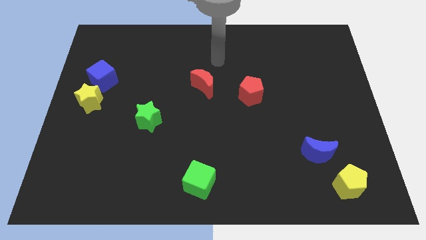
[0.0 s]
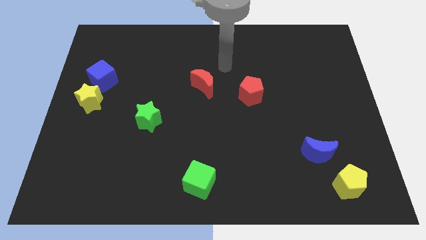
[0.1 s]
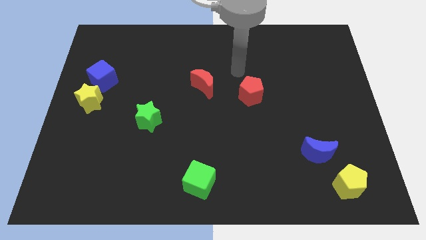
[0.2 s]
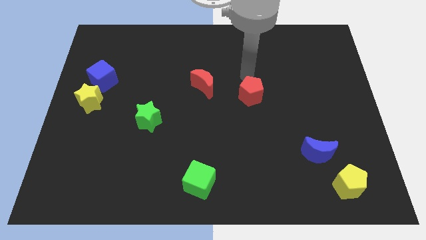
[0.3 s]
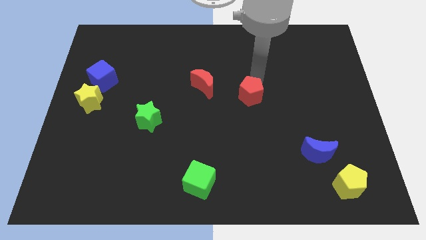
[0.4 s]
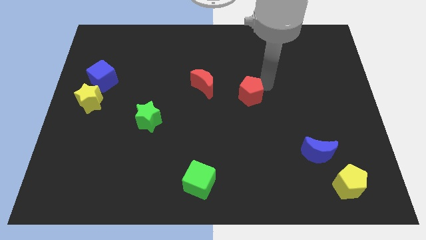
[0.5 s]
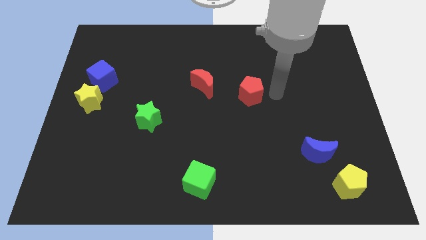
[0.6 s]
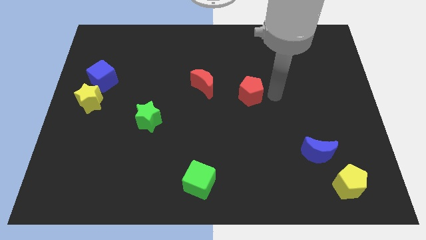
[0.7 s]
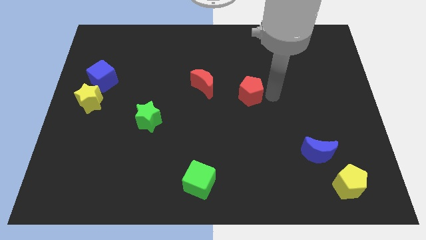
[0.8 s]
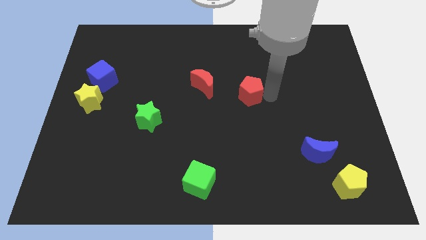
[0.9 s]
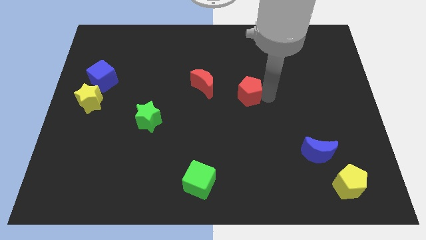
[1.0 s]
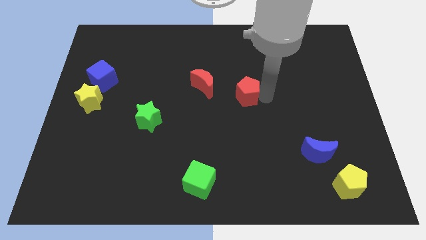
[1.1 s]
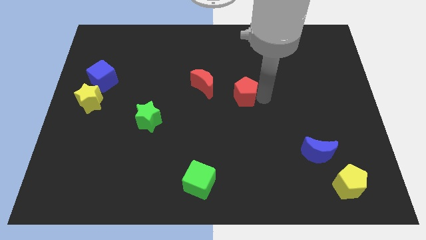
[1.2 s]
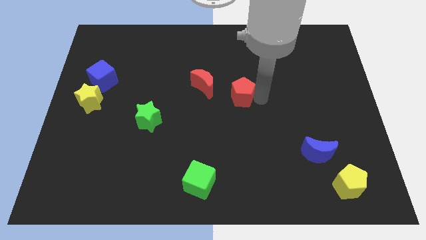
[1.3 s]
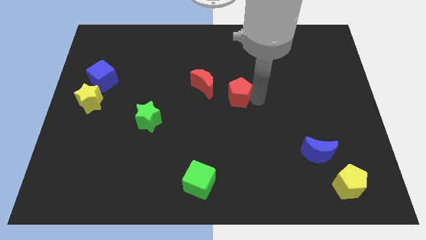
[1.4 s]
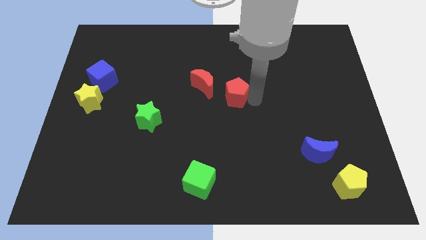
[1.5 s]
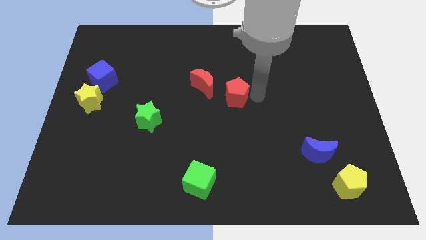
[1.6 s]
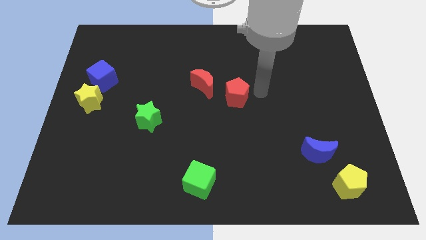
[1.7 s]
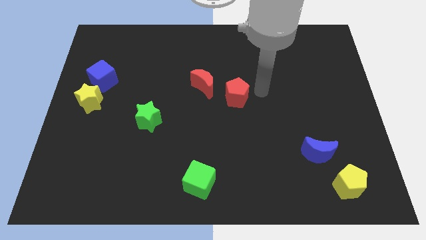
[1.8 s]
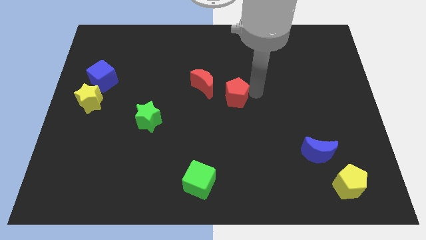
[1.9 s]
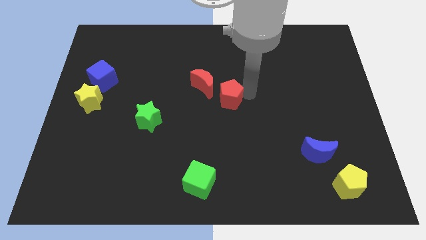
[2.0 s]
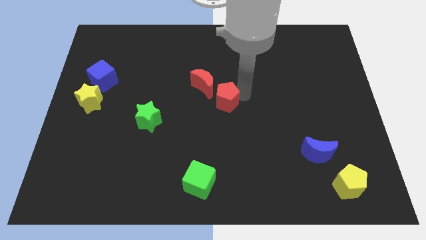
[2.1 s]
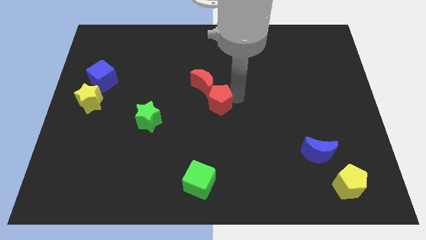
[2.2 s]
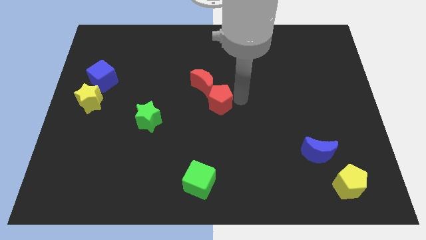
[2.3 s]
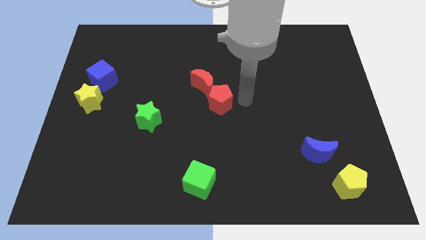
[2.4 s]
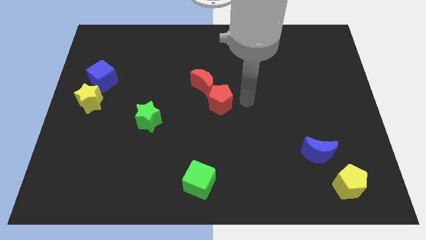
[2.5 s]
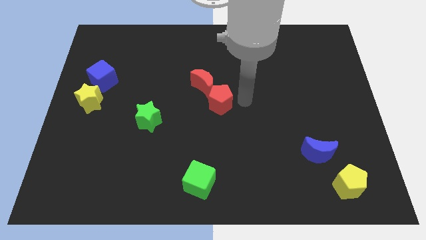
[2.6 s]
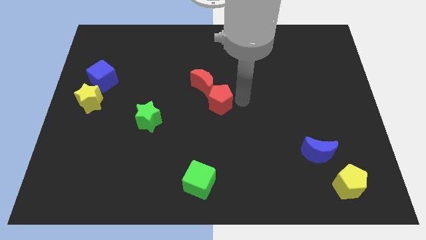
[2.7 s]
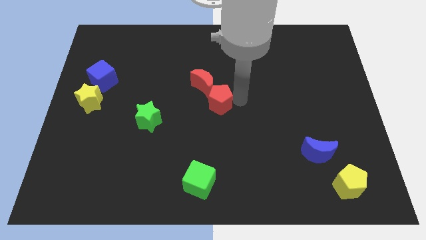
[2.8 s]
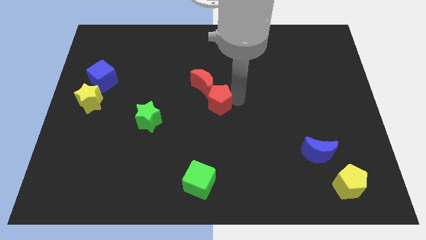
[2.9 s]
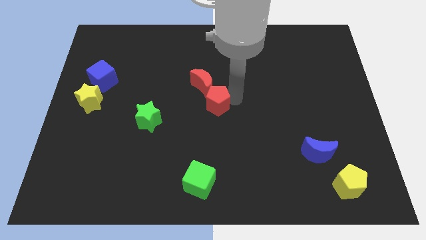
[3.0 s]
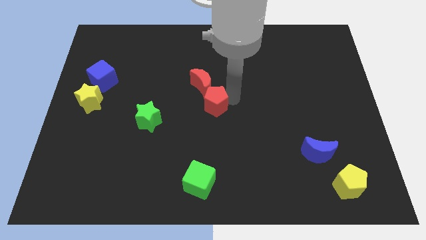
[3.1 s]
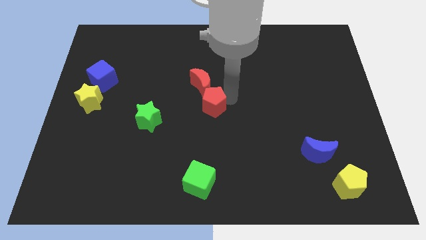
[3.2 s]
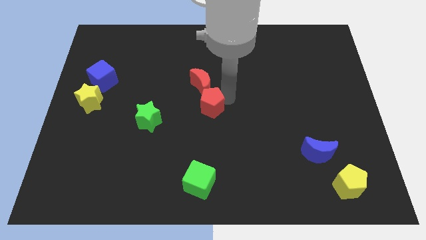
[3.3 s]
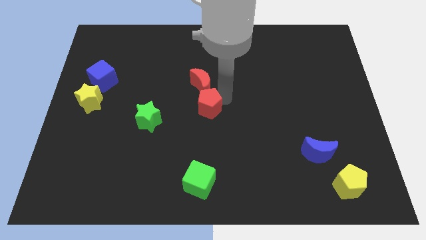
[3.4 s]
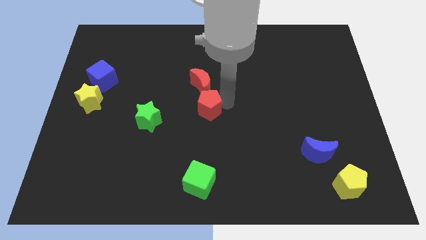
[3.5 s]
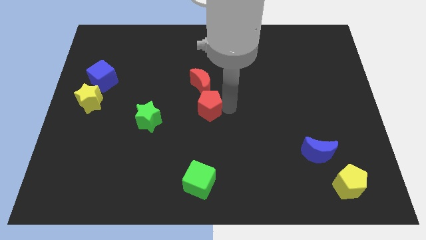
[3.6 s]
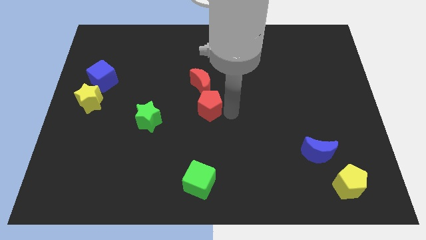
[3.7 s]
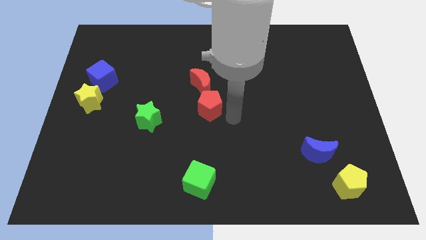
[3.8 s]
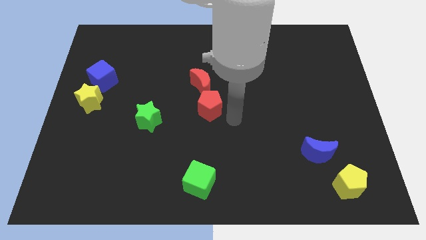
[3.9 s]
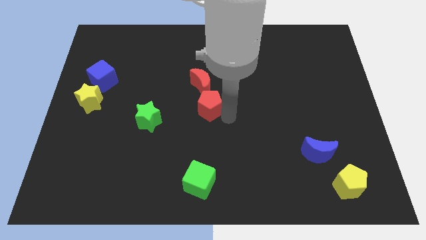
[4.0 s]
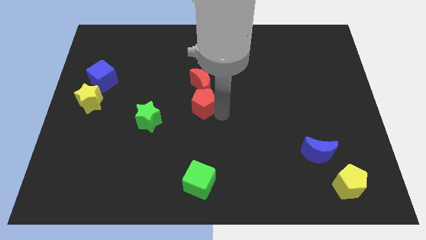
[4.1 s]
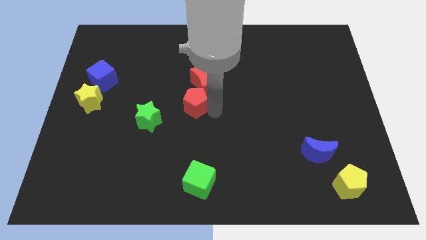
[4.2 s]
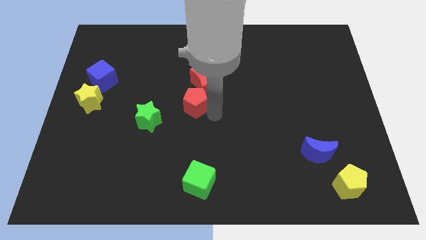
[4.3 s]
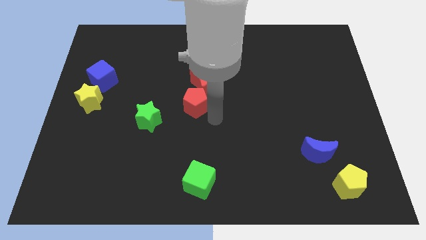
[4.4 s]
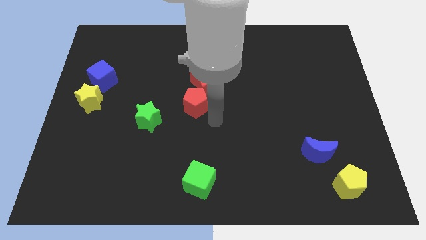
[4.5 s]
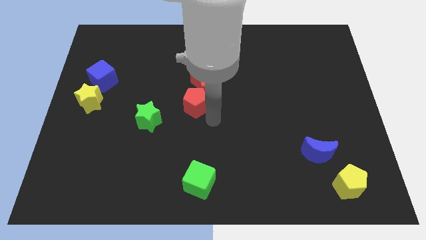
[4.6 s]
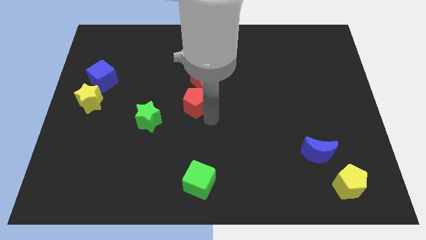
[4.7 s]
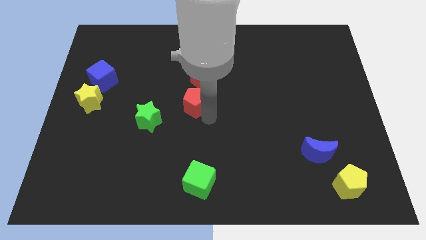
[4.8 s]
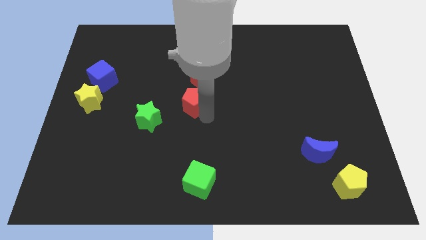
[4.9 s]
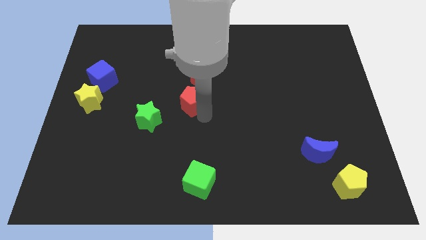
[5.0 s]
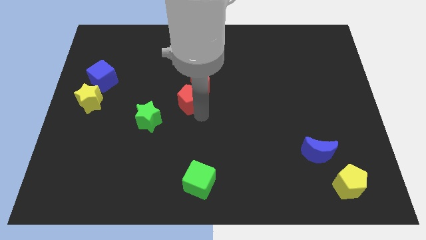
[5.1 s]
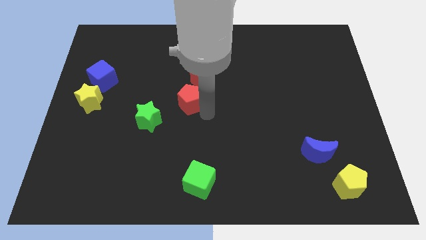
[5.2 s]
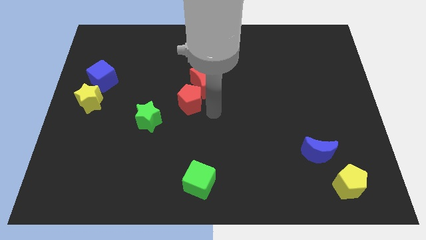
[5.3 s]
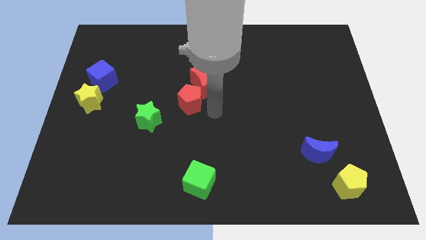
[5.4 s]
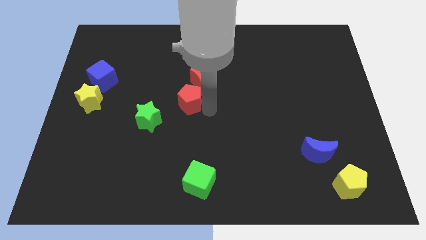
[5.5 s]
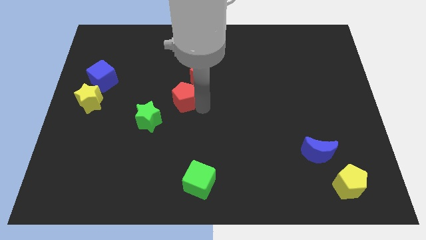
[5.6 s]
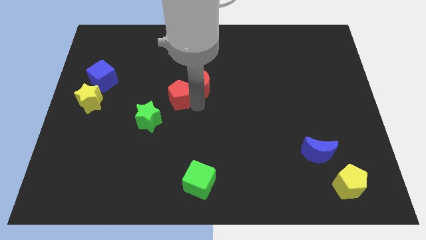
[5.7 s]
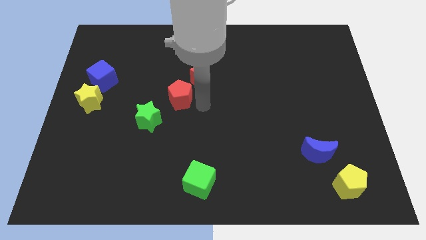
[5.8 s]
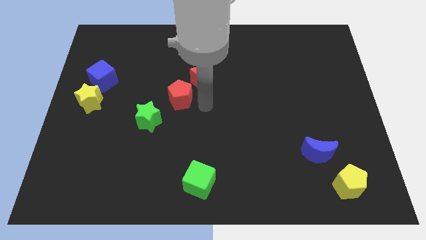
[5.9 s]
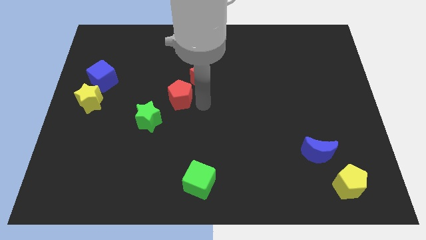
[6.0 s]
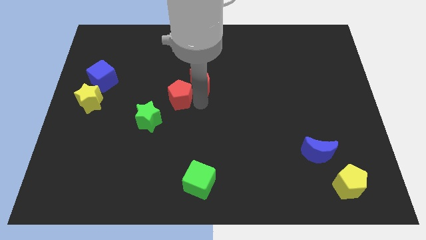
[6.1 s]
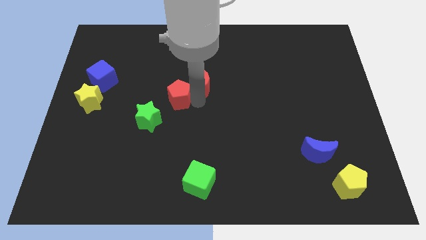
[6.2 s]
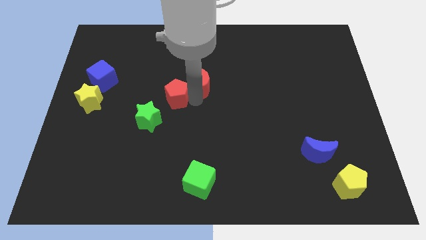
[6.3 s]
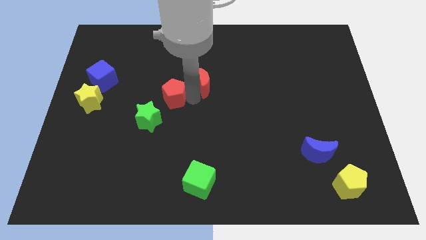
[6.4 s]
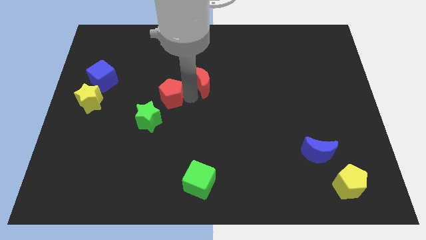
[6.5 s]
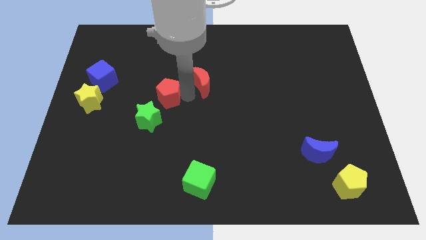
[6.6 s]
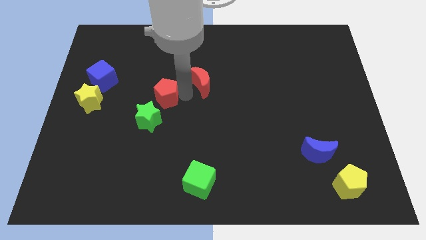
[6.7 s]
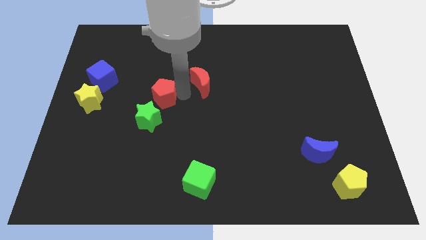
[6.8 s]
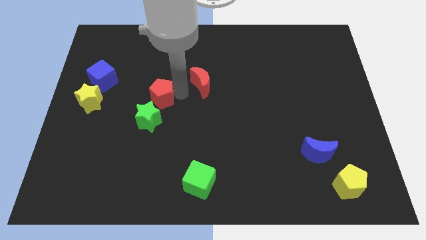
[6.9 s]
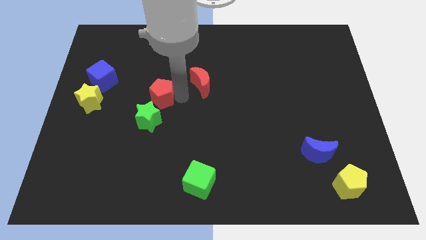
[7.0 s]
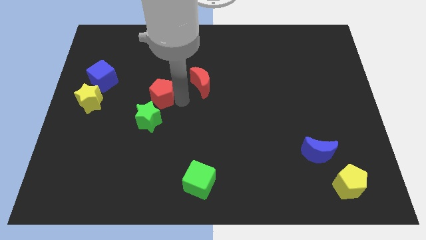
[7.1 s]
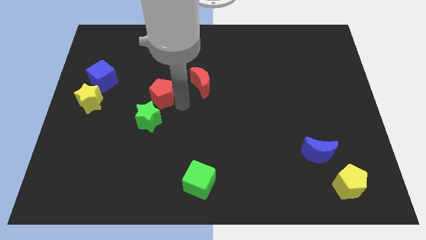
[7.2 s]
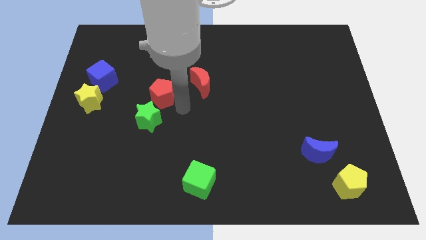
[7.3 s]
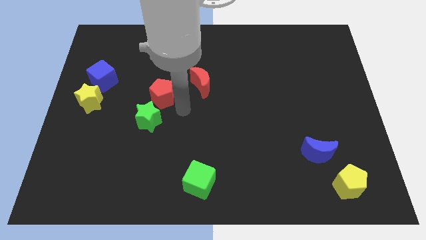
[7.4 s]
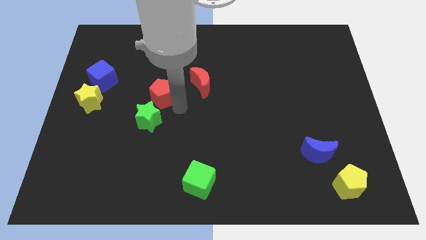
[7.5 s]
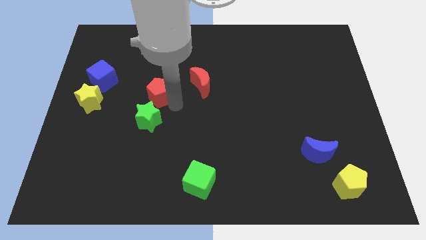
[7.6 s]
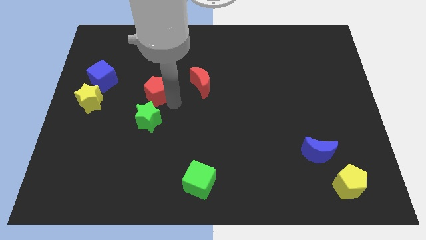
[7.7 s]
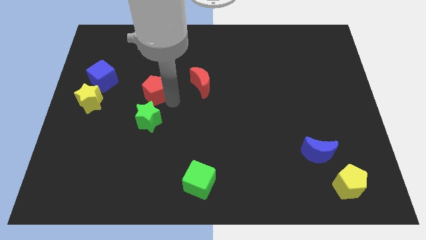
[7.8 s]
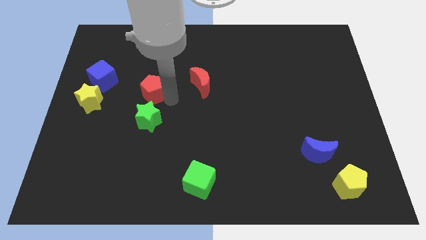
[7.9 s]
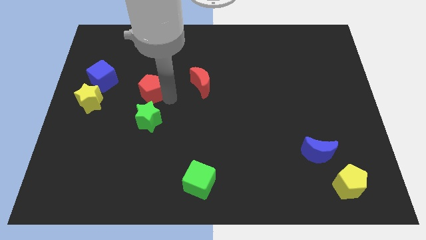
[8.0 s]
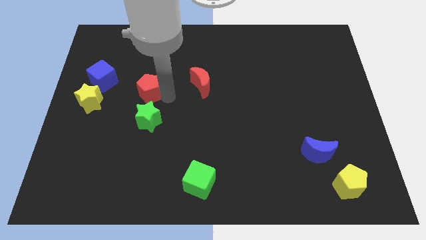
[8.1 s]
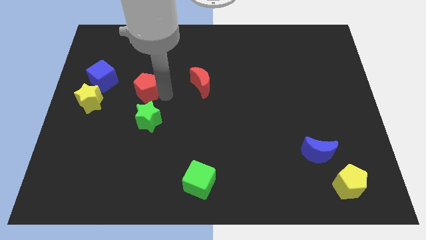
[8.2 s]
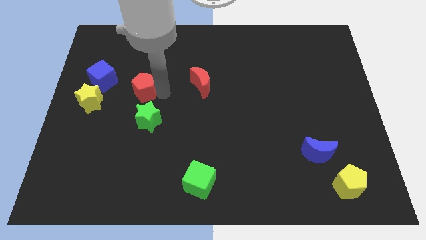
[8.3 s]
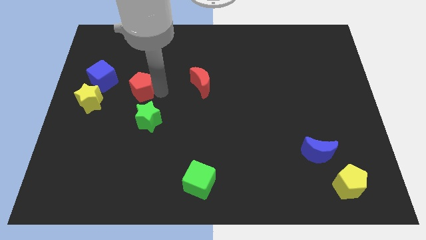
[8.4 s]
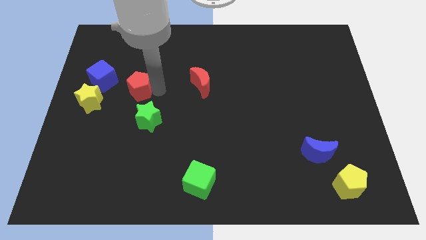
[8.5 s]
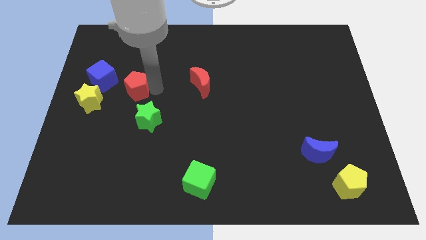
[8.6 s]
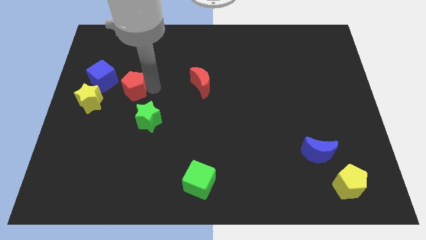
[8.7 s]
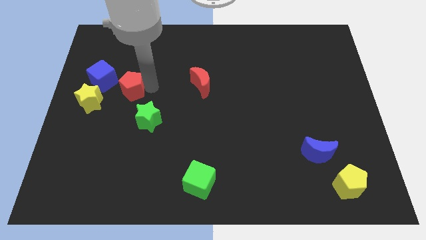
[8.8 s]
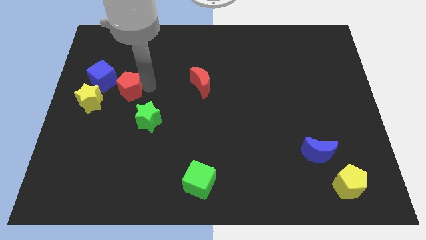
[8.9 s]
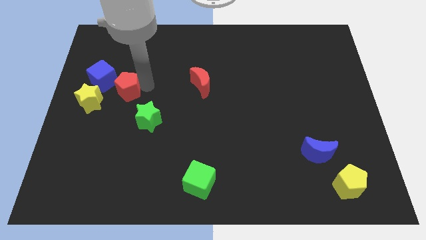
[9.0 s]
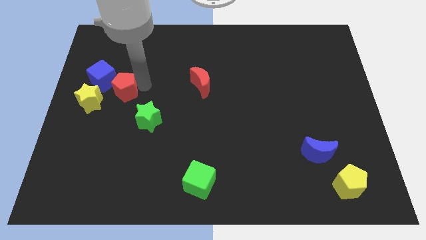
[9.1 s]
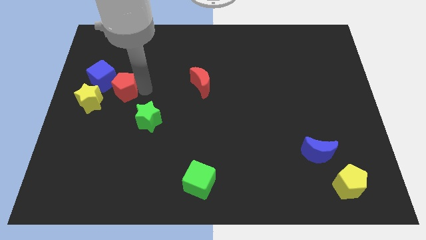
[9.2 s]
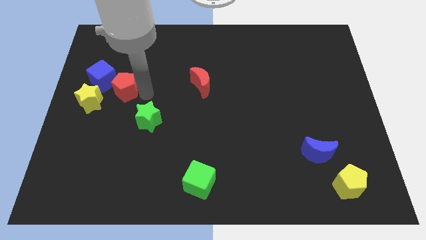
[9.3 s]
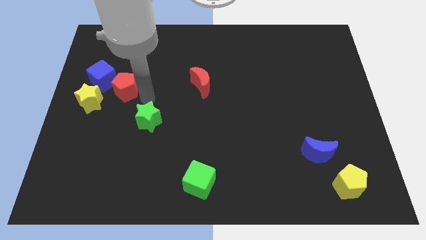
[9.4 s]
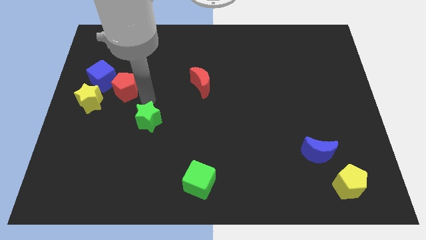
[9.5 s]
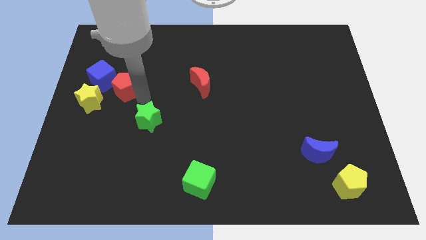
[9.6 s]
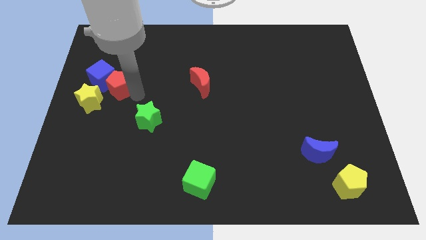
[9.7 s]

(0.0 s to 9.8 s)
put the red pentagon next to the blue cube
